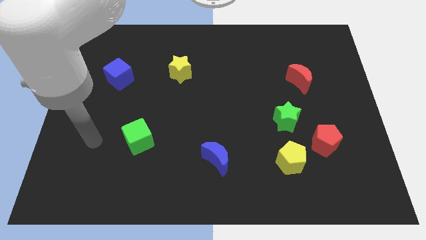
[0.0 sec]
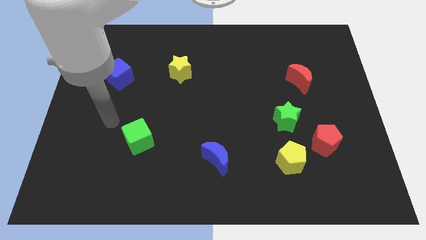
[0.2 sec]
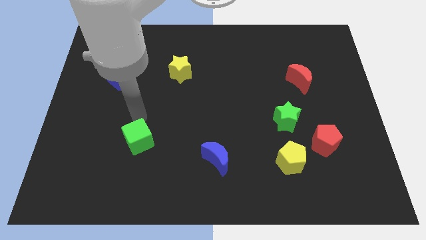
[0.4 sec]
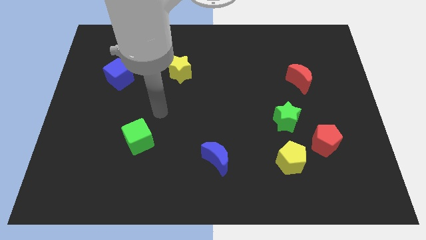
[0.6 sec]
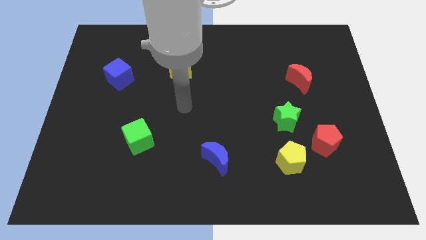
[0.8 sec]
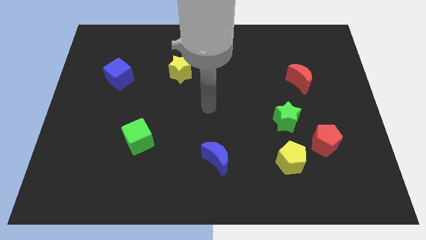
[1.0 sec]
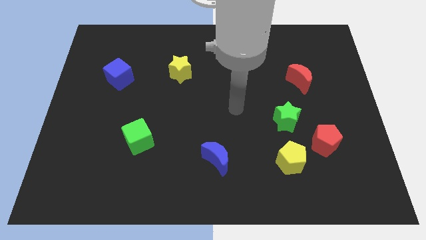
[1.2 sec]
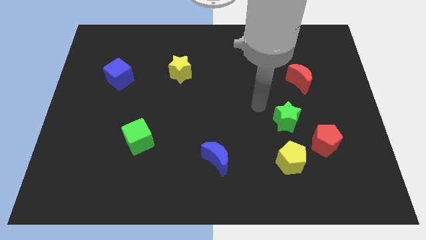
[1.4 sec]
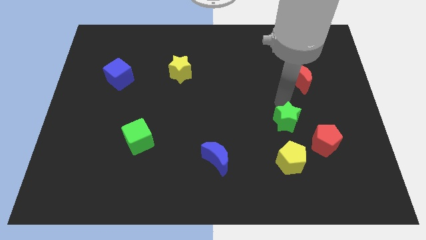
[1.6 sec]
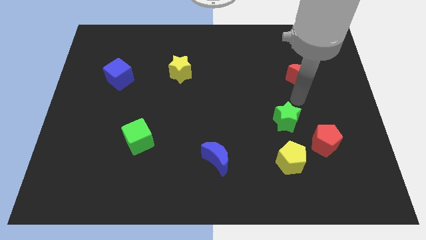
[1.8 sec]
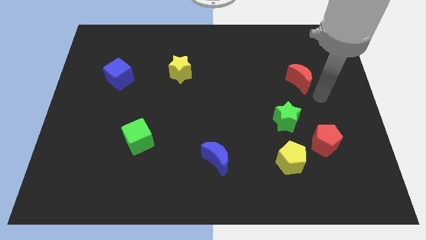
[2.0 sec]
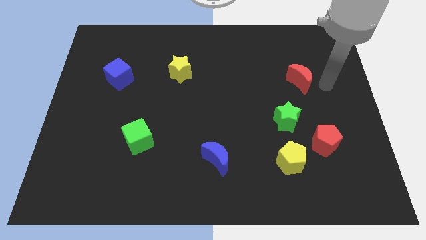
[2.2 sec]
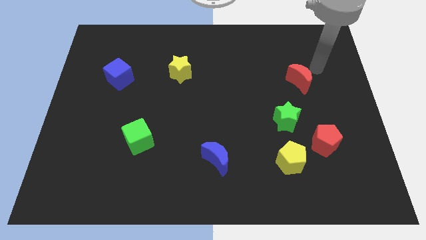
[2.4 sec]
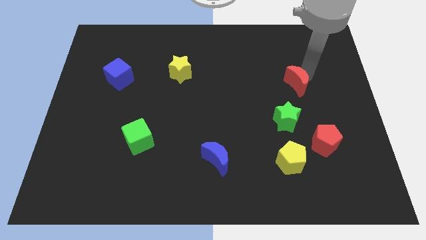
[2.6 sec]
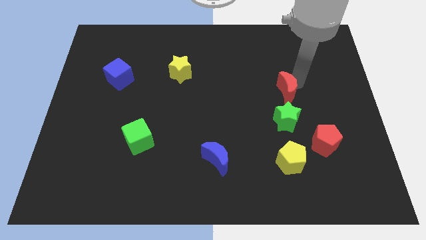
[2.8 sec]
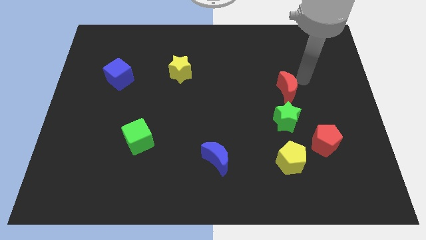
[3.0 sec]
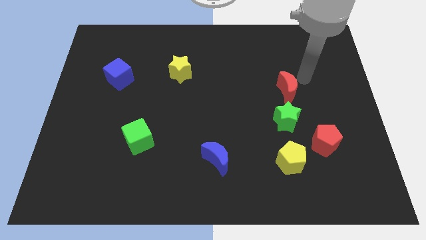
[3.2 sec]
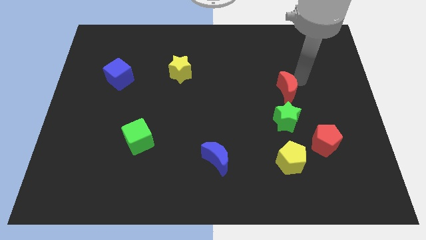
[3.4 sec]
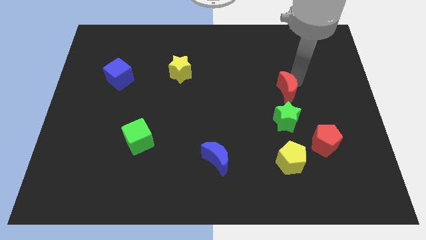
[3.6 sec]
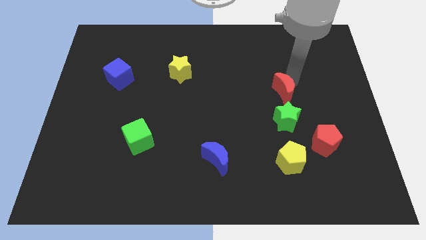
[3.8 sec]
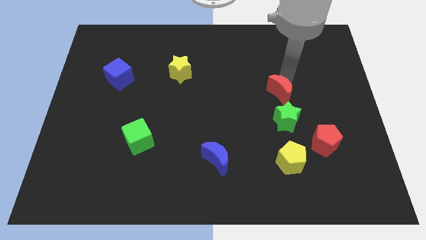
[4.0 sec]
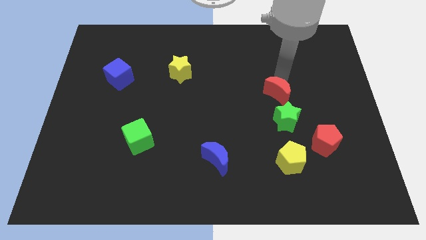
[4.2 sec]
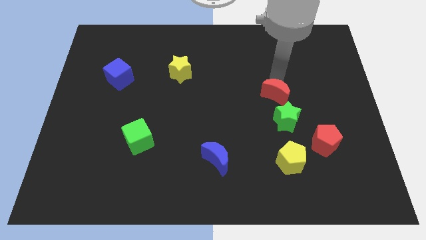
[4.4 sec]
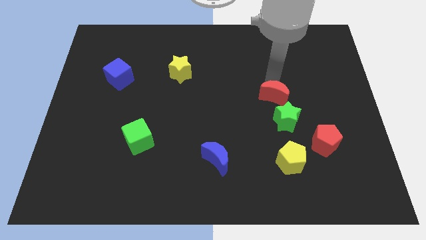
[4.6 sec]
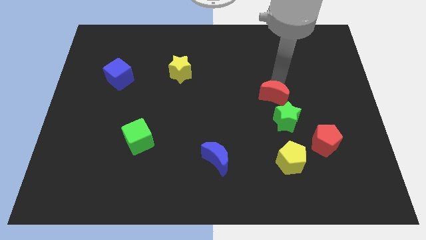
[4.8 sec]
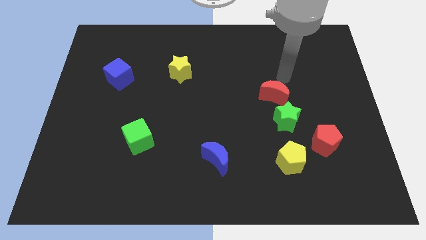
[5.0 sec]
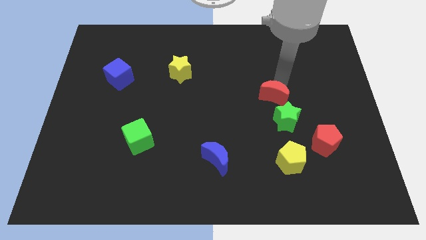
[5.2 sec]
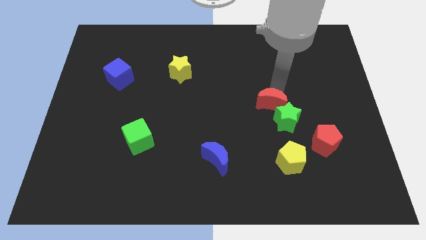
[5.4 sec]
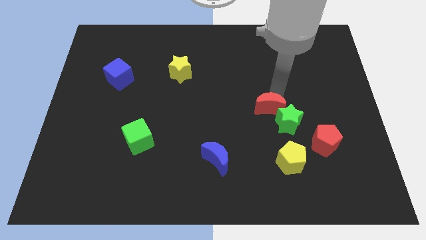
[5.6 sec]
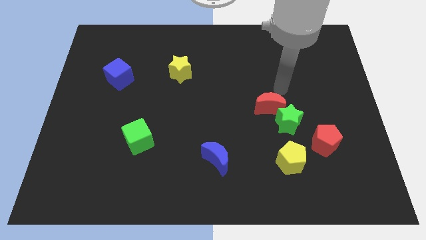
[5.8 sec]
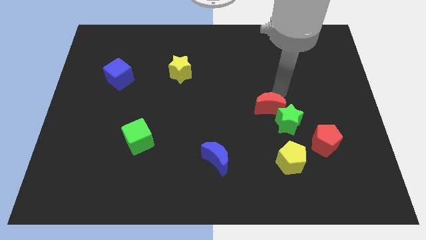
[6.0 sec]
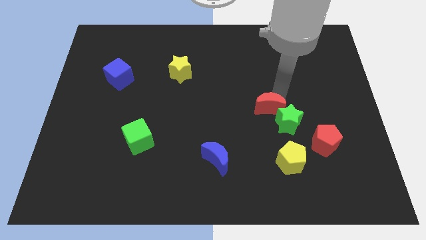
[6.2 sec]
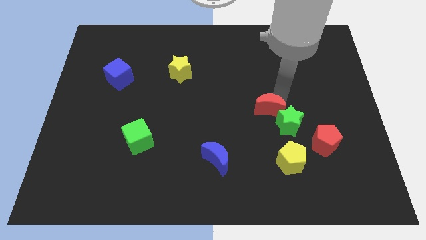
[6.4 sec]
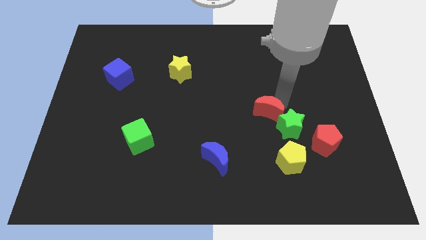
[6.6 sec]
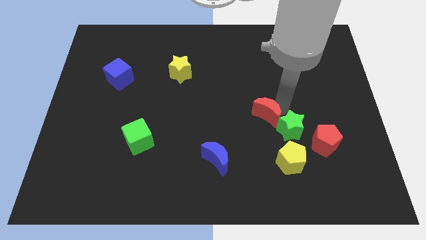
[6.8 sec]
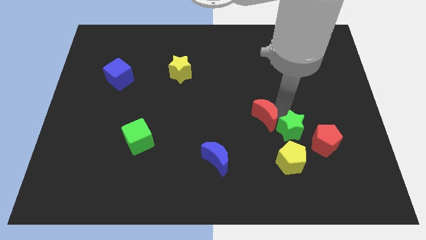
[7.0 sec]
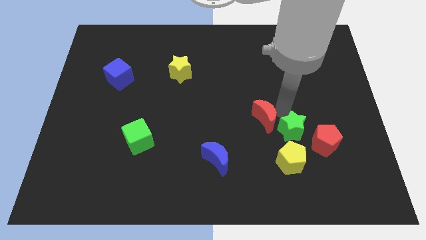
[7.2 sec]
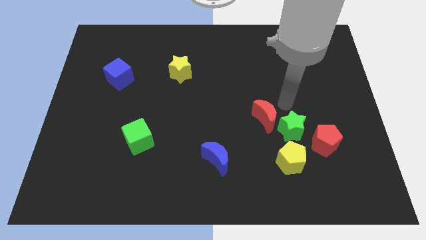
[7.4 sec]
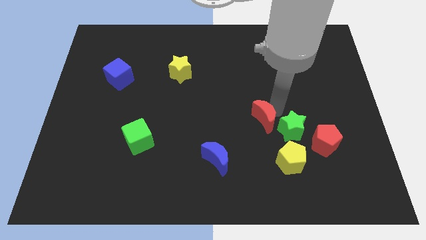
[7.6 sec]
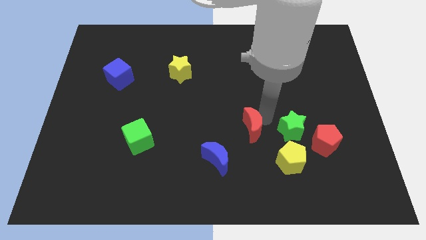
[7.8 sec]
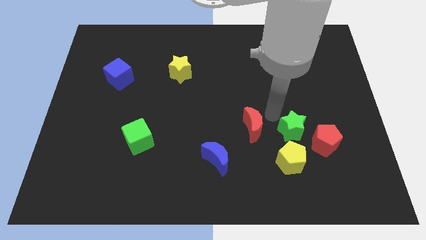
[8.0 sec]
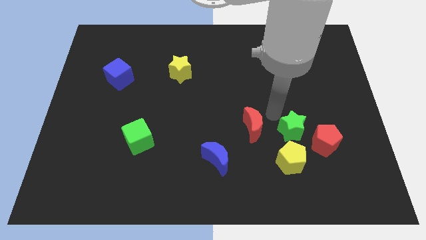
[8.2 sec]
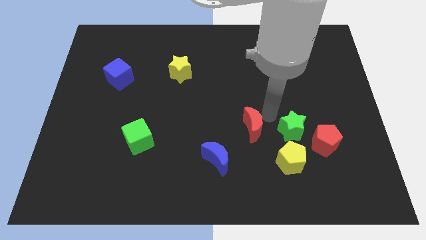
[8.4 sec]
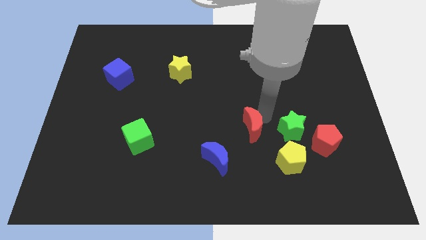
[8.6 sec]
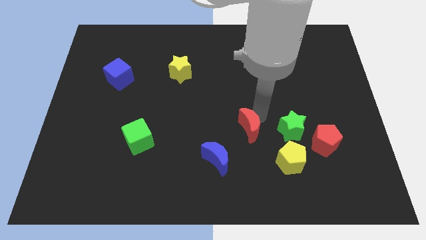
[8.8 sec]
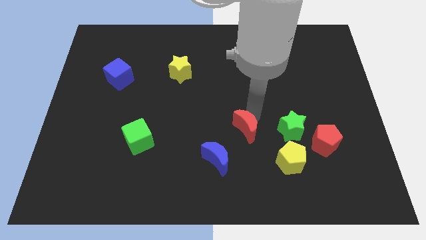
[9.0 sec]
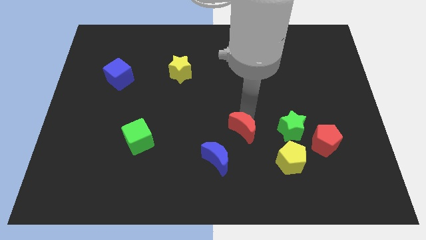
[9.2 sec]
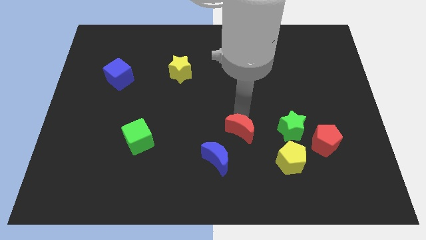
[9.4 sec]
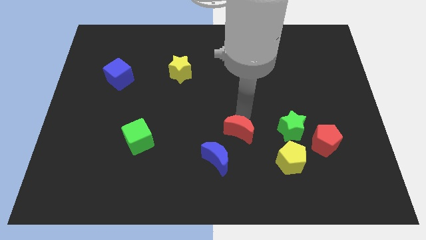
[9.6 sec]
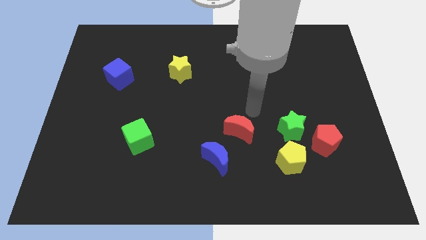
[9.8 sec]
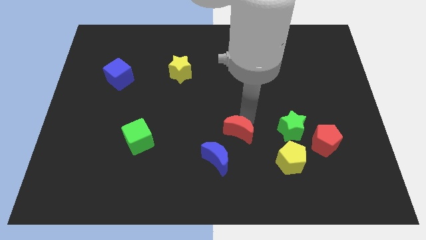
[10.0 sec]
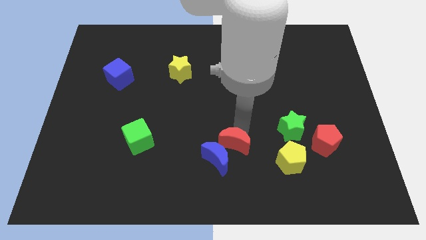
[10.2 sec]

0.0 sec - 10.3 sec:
slide the red moon next to the blue moon

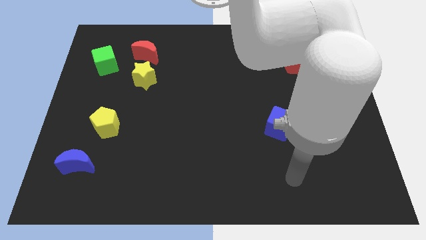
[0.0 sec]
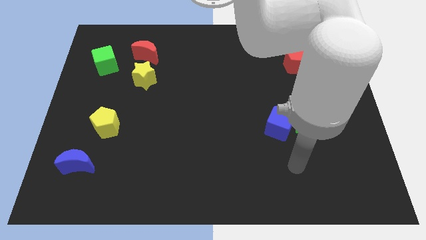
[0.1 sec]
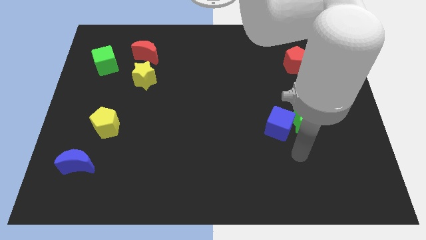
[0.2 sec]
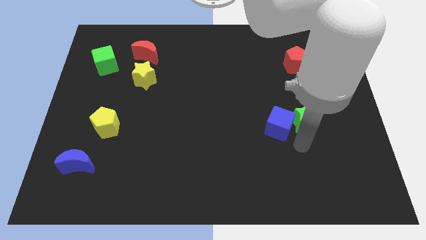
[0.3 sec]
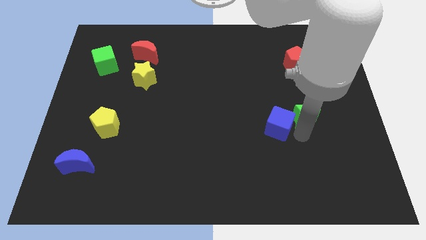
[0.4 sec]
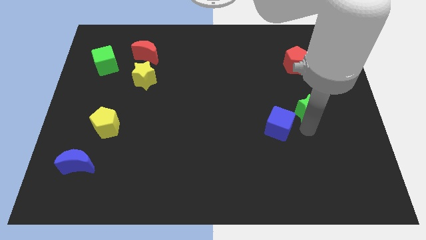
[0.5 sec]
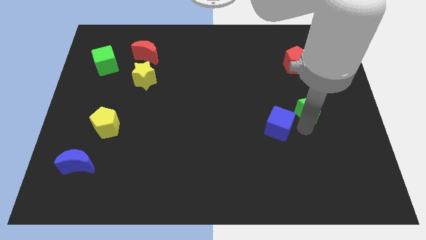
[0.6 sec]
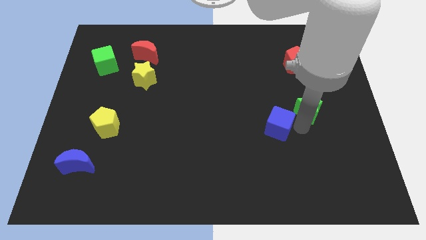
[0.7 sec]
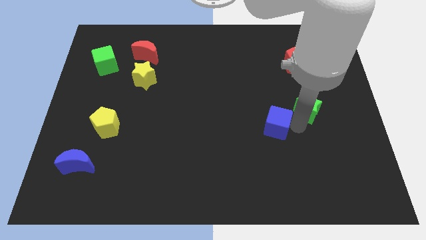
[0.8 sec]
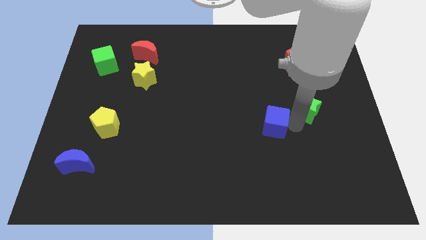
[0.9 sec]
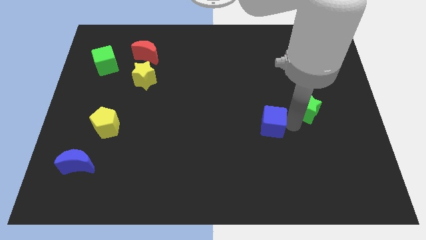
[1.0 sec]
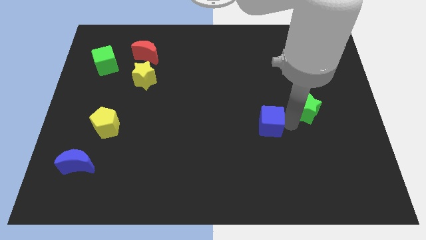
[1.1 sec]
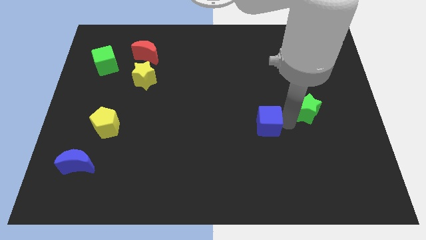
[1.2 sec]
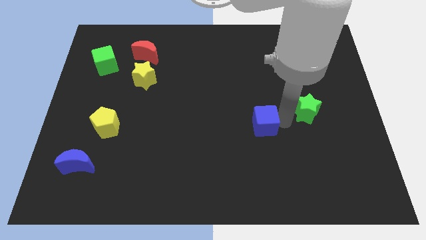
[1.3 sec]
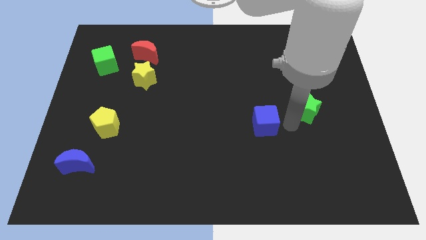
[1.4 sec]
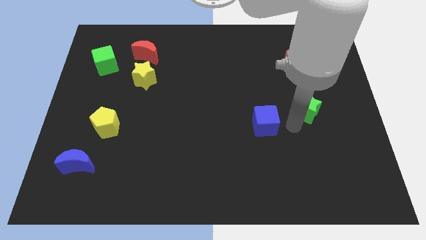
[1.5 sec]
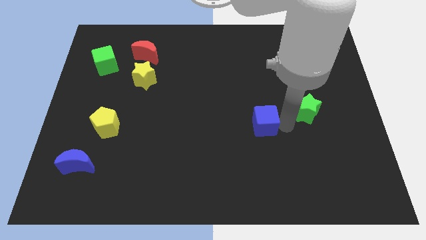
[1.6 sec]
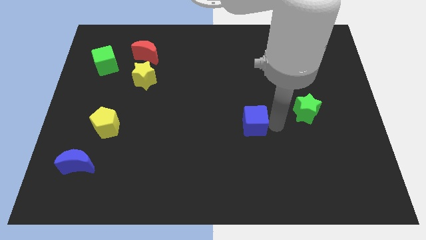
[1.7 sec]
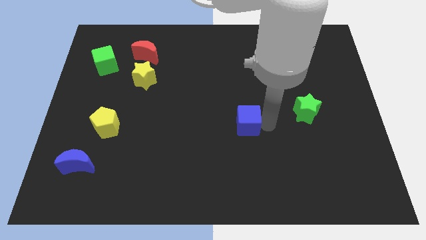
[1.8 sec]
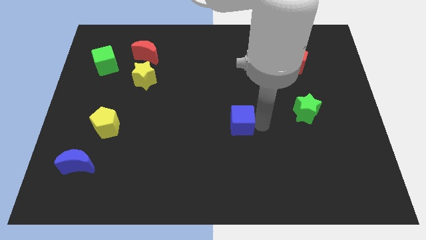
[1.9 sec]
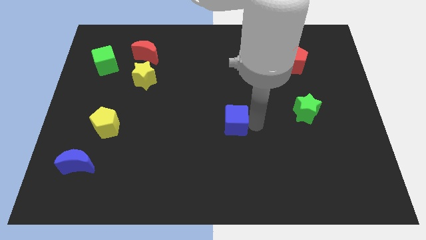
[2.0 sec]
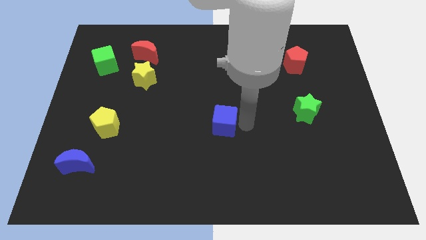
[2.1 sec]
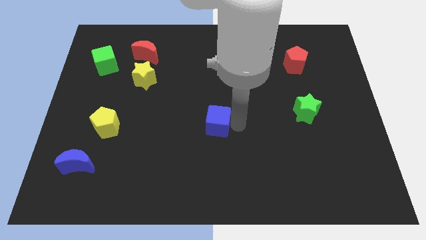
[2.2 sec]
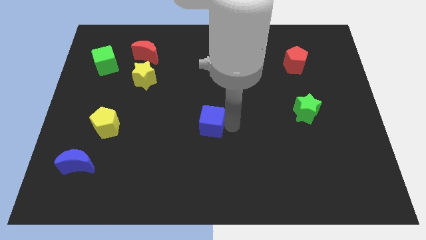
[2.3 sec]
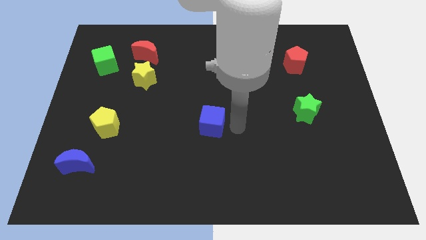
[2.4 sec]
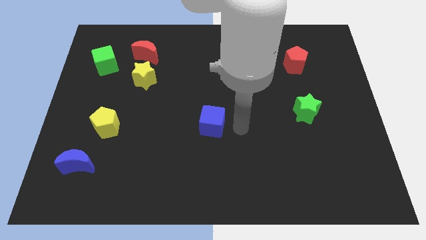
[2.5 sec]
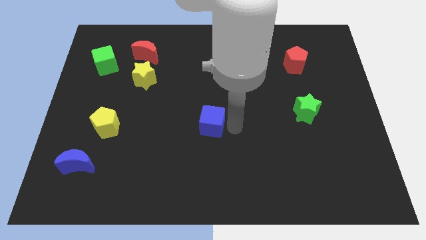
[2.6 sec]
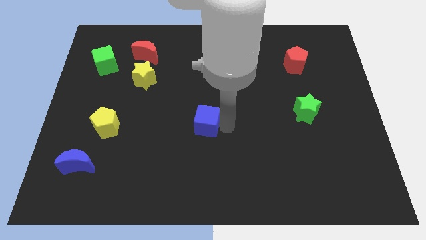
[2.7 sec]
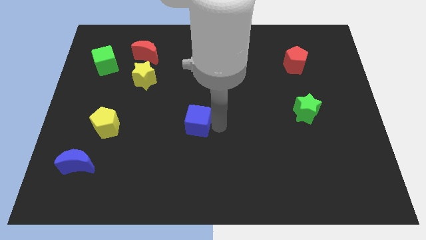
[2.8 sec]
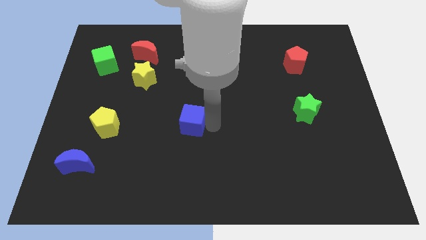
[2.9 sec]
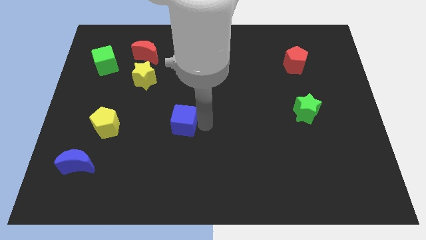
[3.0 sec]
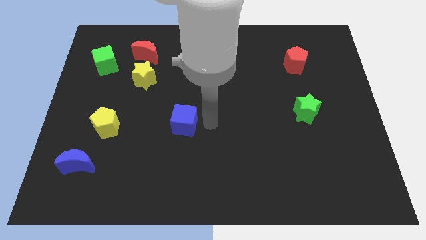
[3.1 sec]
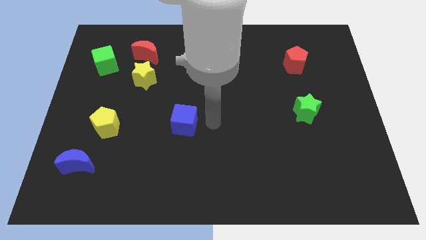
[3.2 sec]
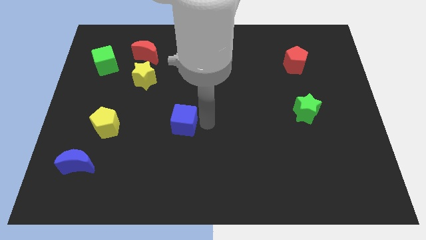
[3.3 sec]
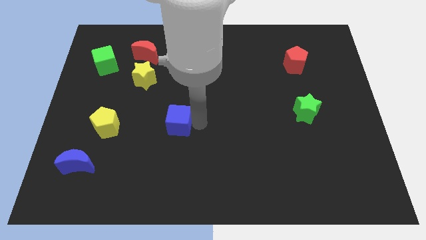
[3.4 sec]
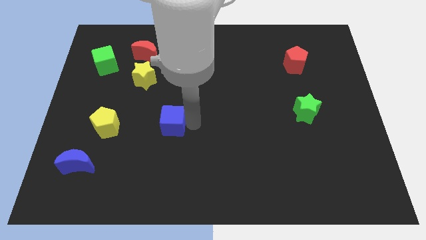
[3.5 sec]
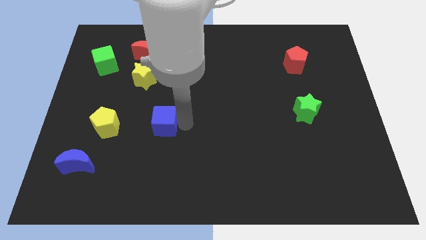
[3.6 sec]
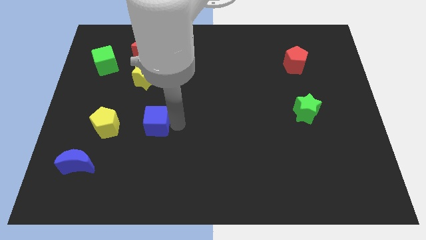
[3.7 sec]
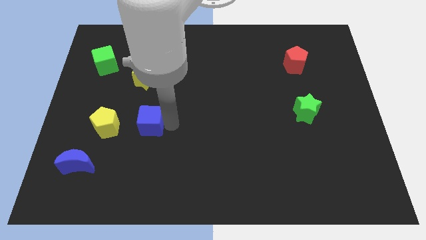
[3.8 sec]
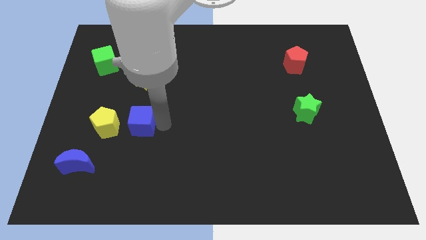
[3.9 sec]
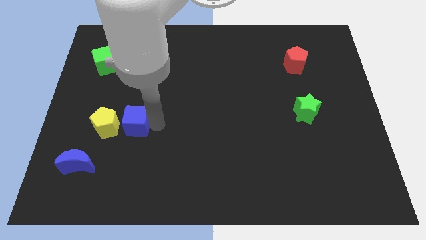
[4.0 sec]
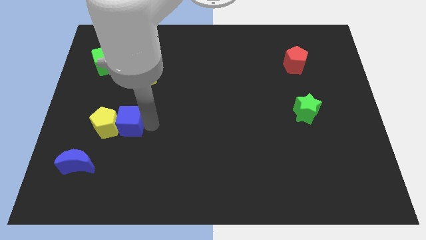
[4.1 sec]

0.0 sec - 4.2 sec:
move the blue cube next to the yellow pentagon
